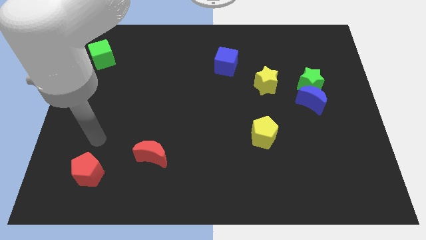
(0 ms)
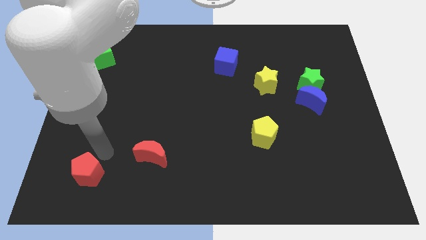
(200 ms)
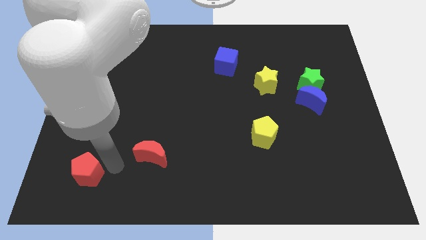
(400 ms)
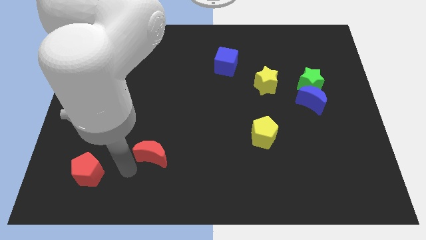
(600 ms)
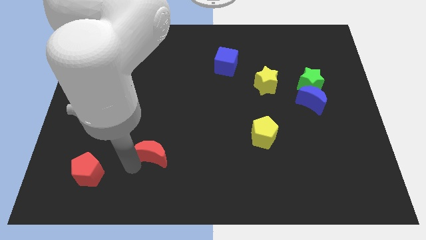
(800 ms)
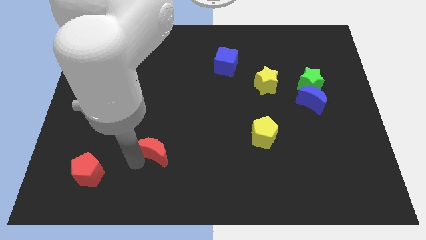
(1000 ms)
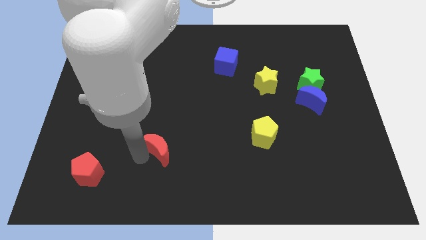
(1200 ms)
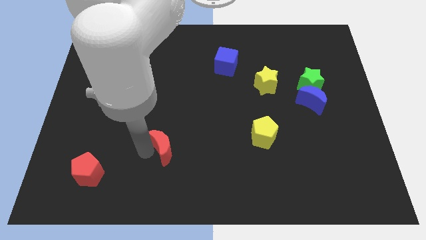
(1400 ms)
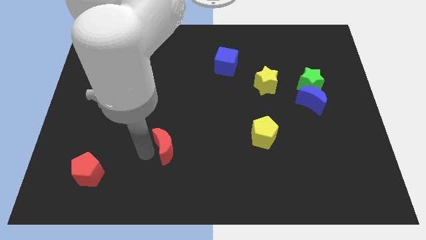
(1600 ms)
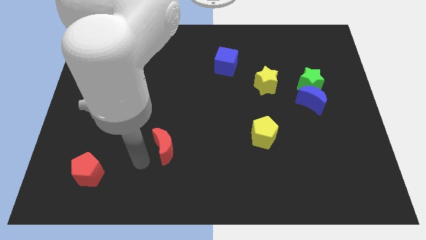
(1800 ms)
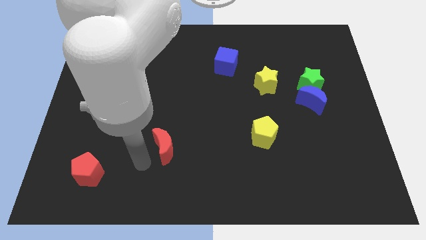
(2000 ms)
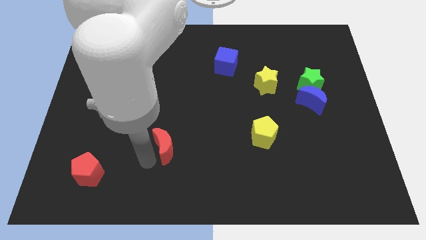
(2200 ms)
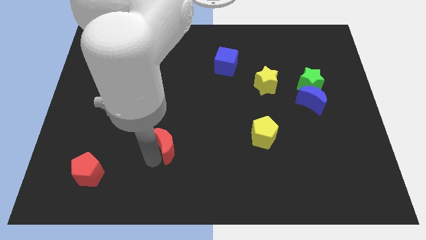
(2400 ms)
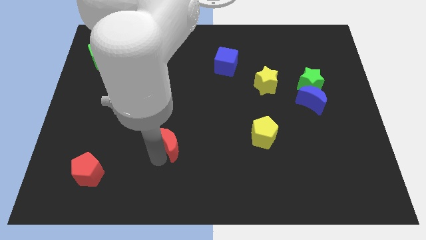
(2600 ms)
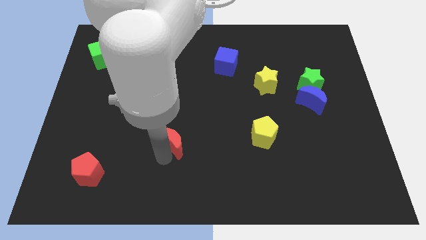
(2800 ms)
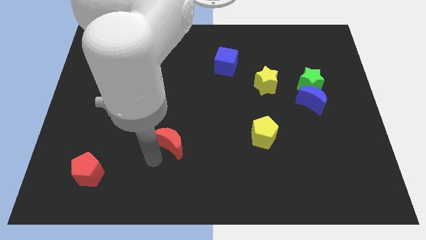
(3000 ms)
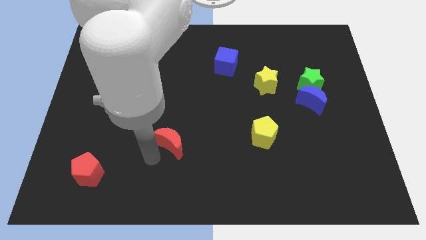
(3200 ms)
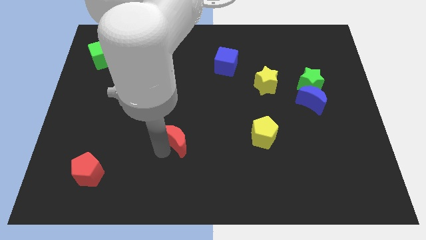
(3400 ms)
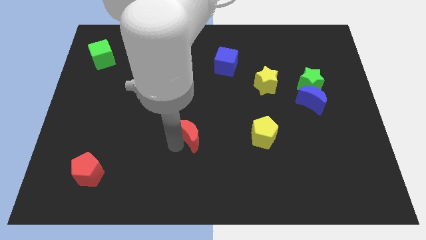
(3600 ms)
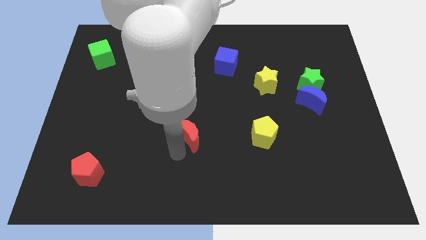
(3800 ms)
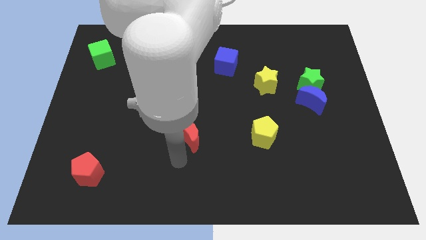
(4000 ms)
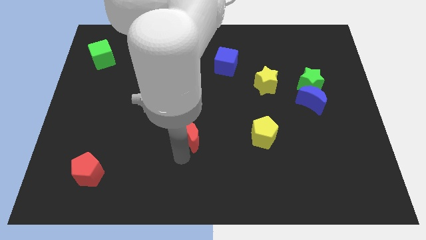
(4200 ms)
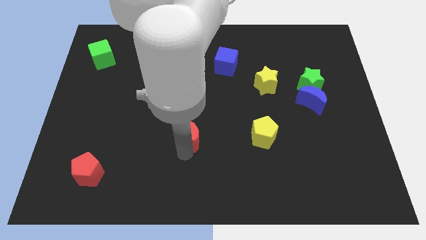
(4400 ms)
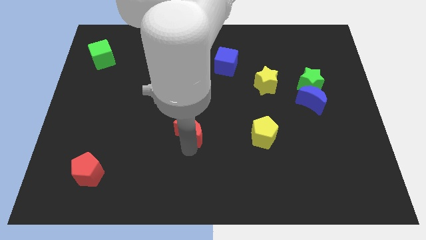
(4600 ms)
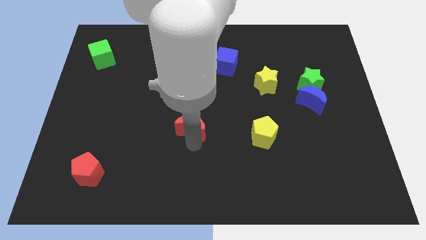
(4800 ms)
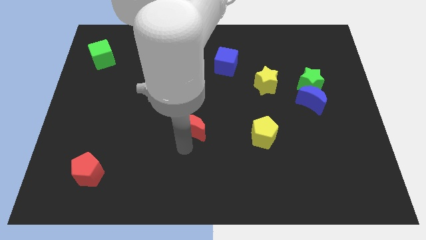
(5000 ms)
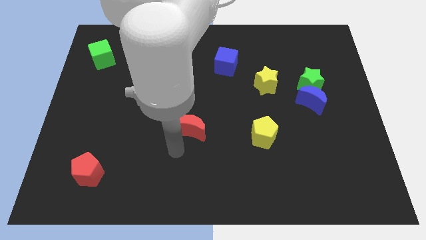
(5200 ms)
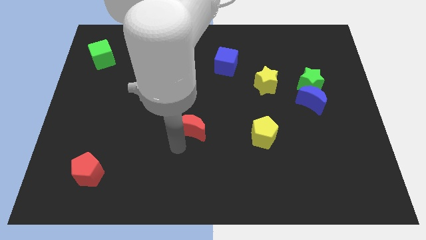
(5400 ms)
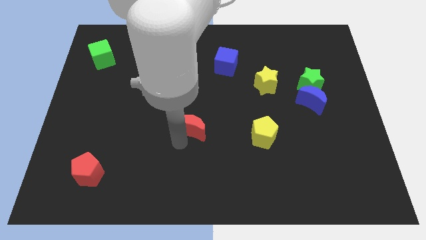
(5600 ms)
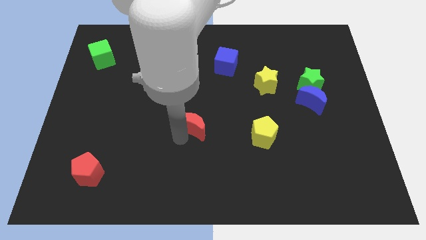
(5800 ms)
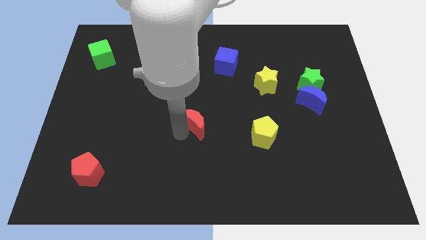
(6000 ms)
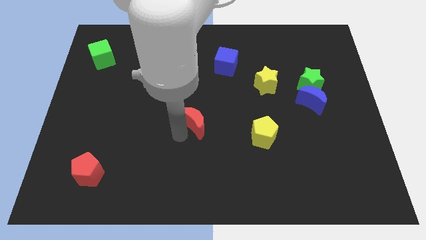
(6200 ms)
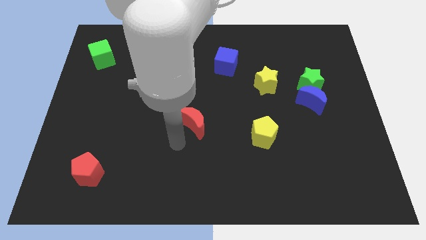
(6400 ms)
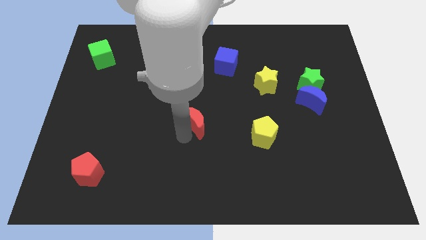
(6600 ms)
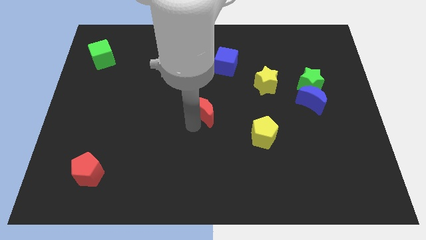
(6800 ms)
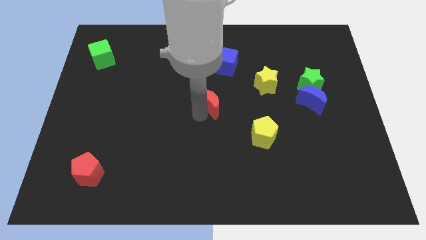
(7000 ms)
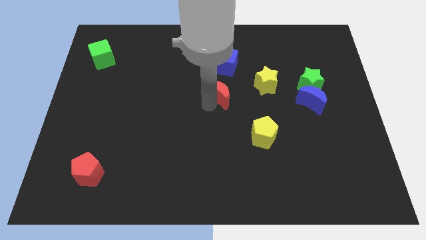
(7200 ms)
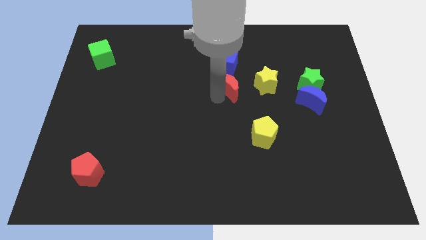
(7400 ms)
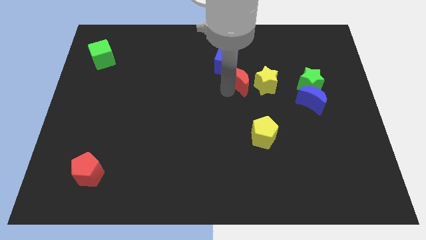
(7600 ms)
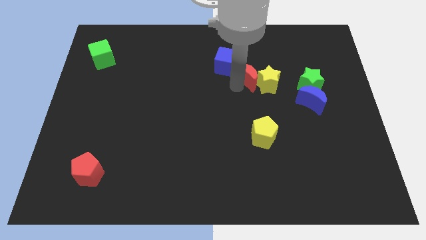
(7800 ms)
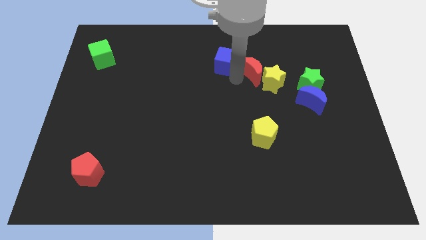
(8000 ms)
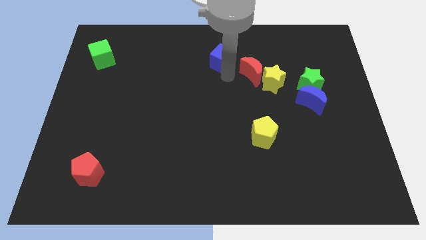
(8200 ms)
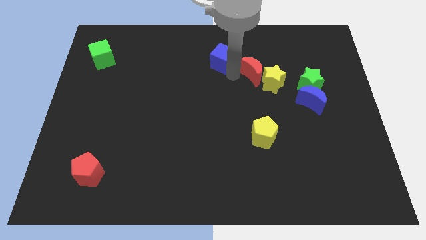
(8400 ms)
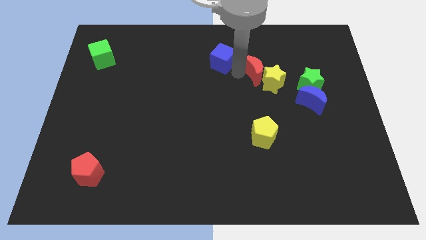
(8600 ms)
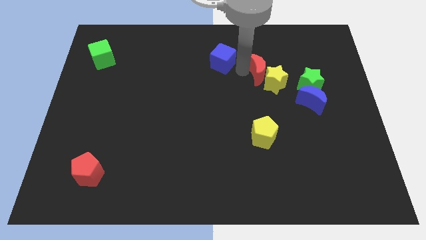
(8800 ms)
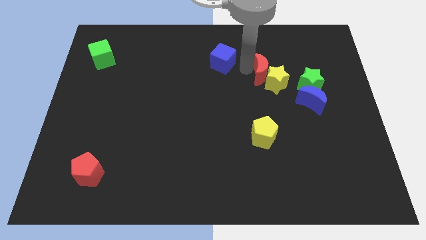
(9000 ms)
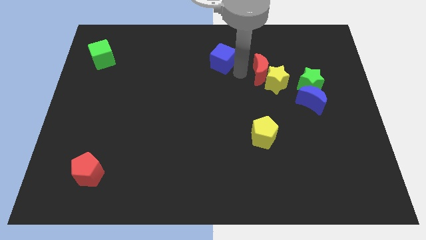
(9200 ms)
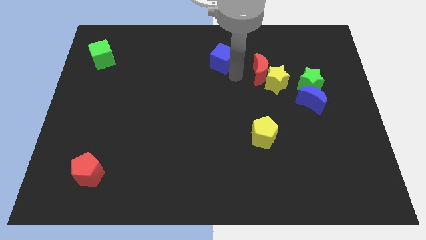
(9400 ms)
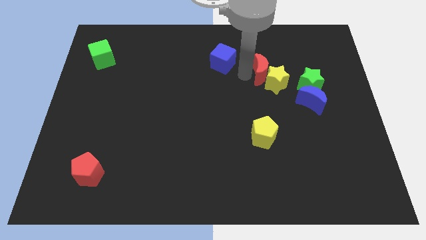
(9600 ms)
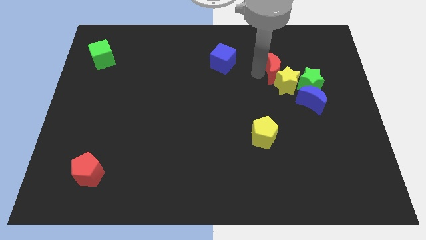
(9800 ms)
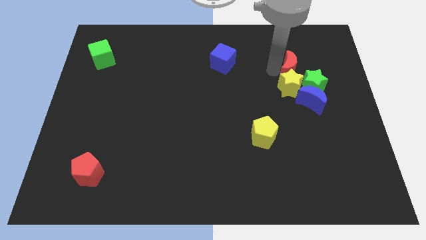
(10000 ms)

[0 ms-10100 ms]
slide the red moon above the blue moon
